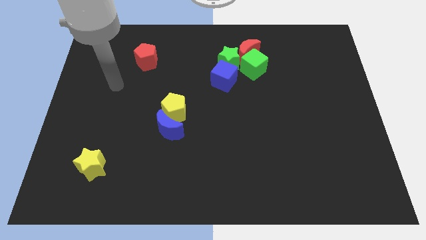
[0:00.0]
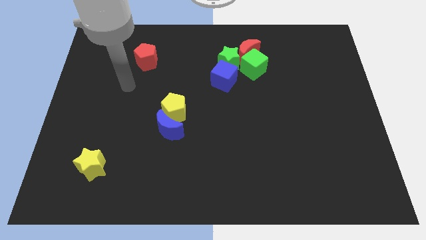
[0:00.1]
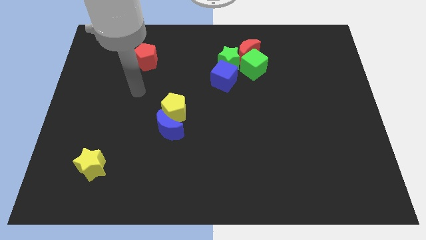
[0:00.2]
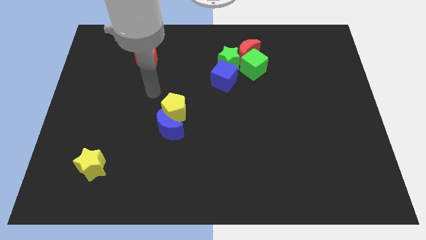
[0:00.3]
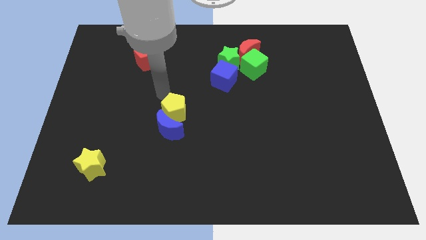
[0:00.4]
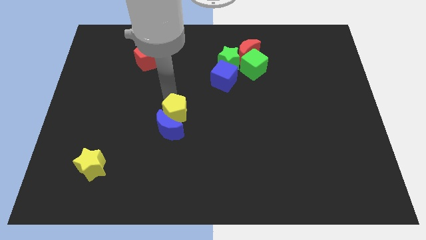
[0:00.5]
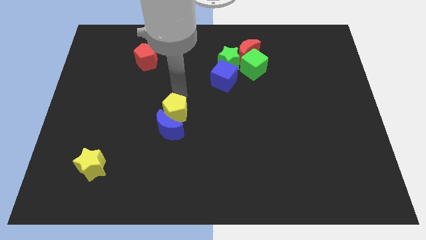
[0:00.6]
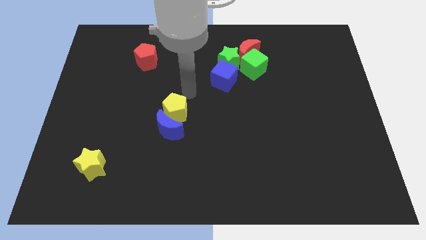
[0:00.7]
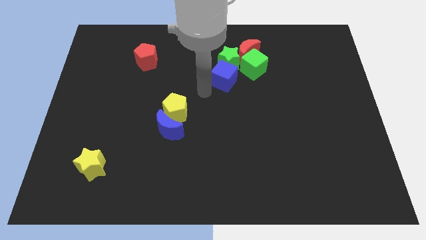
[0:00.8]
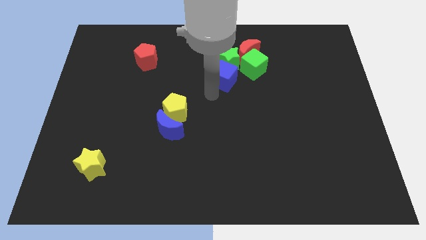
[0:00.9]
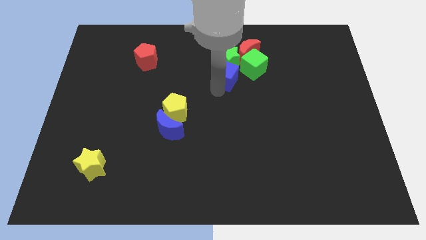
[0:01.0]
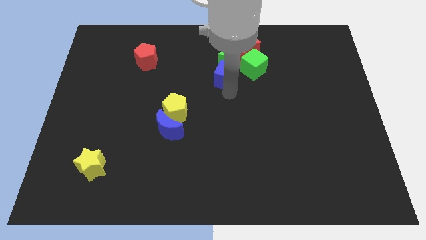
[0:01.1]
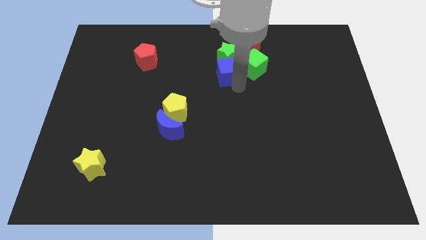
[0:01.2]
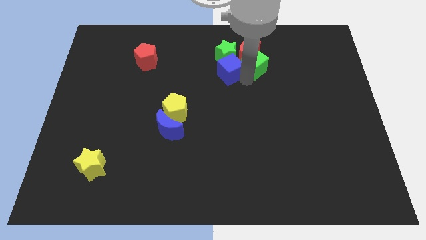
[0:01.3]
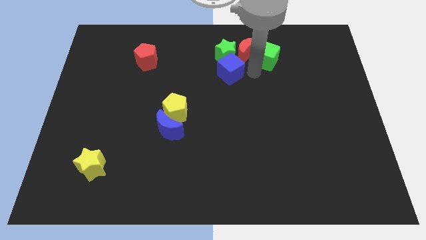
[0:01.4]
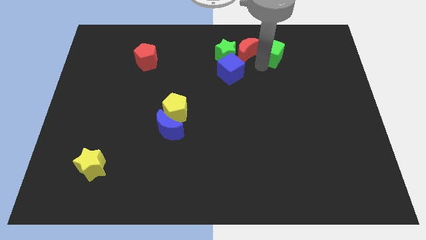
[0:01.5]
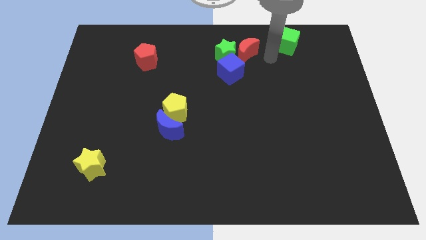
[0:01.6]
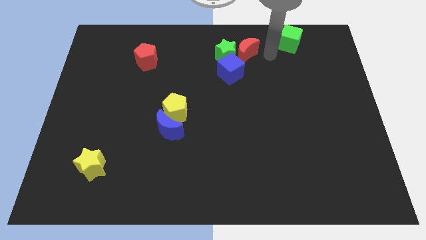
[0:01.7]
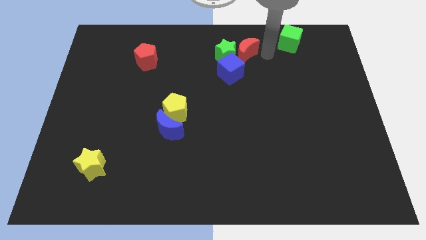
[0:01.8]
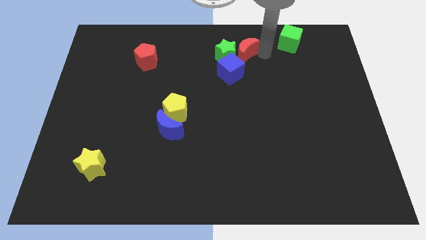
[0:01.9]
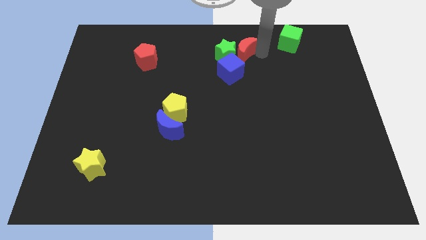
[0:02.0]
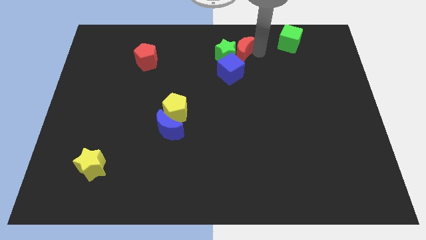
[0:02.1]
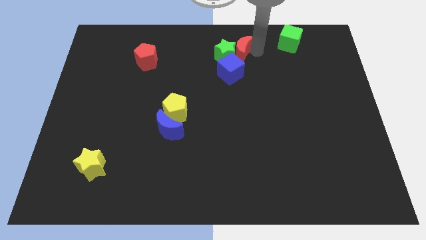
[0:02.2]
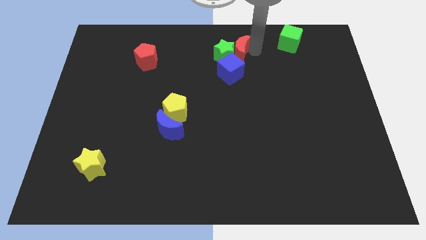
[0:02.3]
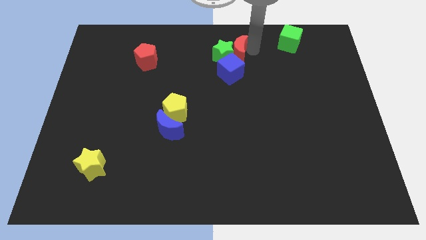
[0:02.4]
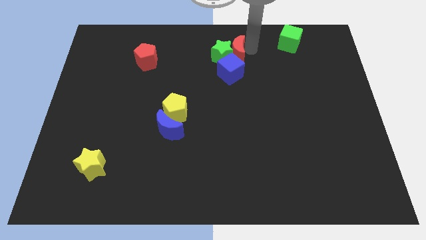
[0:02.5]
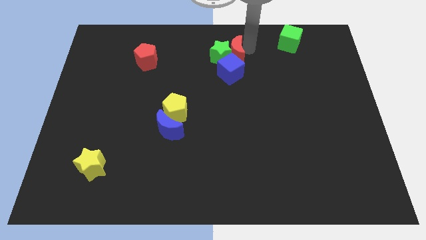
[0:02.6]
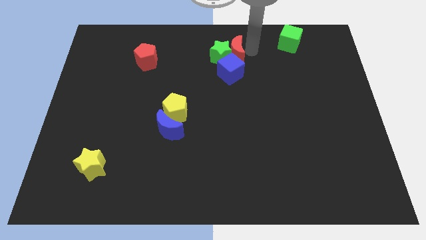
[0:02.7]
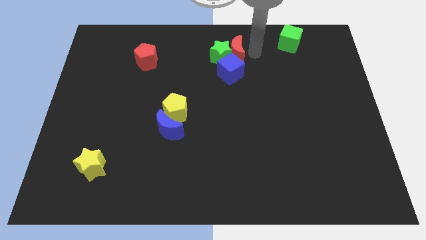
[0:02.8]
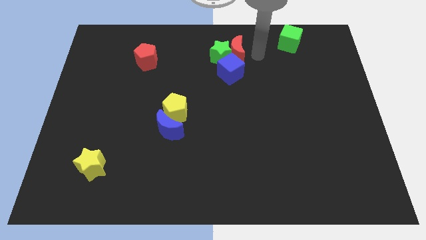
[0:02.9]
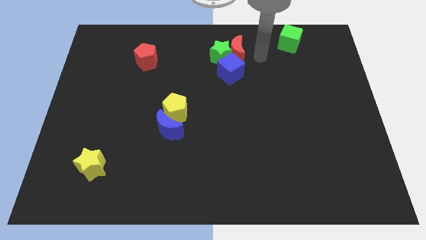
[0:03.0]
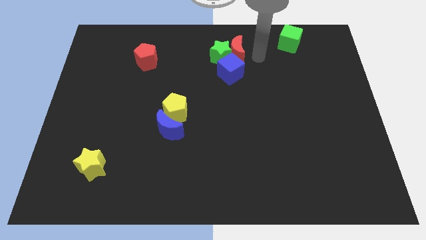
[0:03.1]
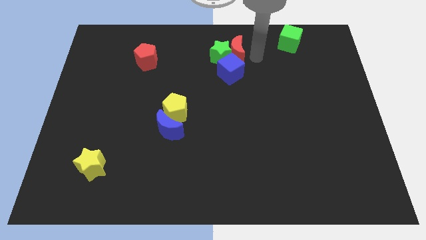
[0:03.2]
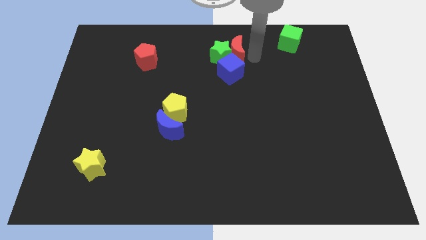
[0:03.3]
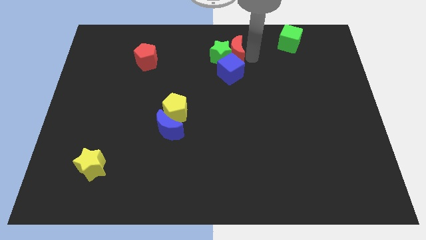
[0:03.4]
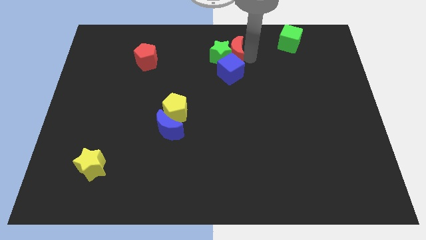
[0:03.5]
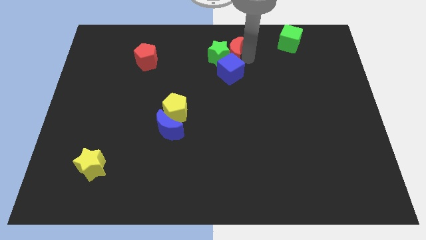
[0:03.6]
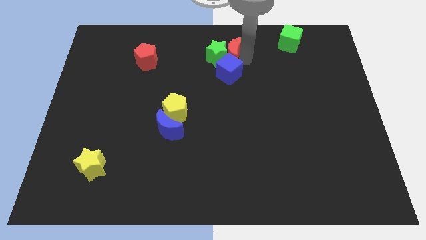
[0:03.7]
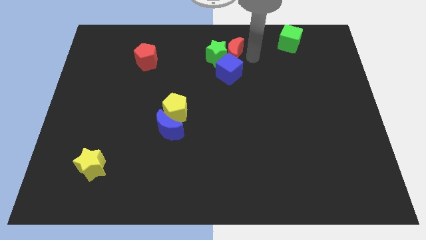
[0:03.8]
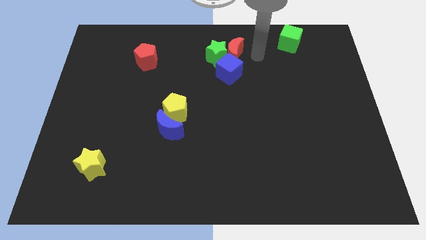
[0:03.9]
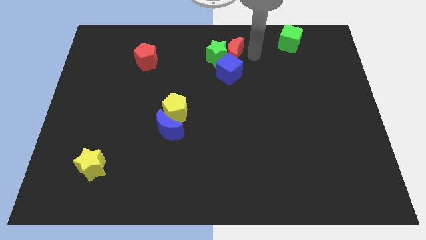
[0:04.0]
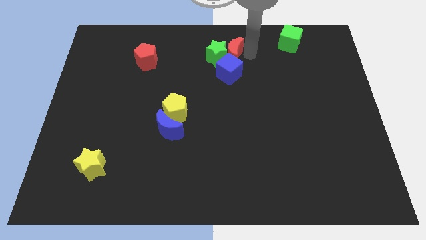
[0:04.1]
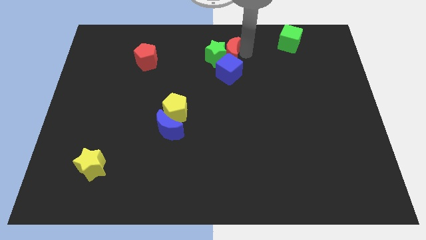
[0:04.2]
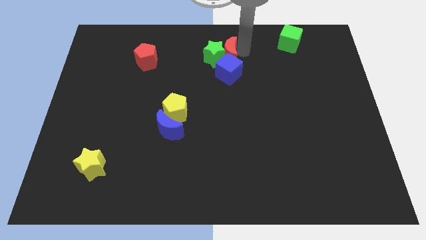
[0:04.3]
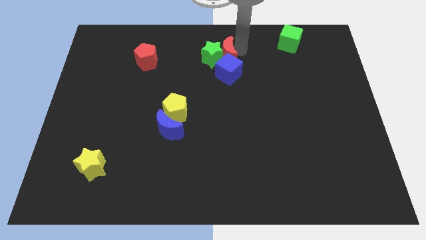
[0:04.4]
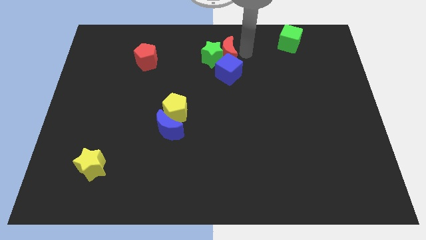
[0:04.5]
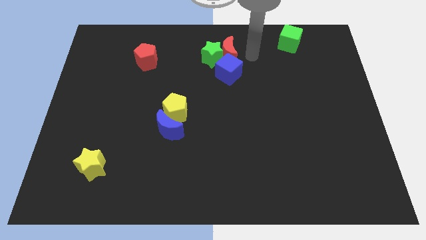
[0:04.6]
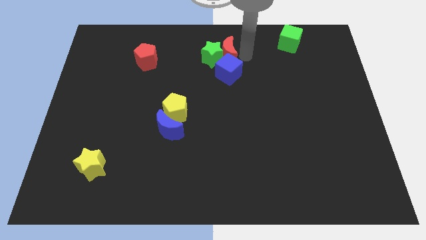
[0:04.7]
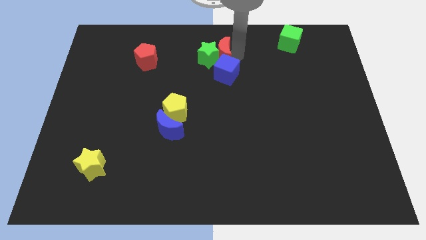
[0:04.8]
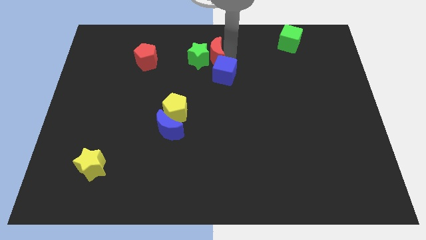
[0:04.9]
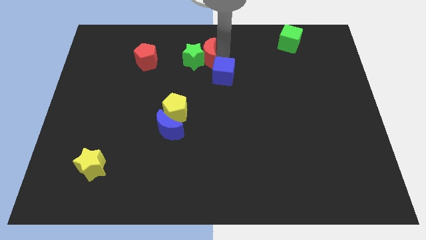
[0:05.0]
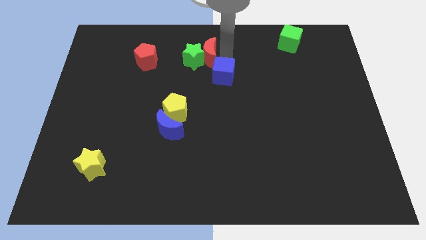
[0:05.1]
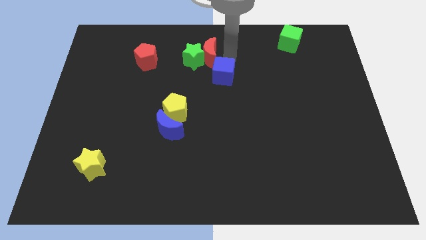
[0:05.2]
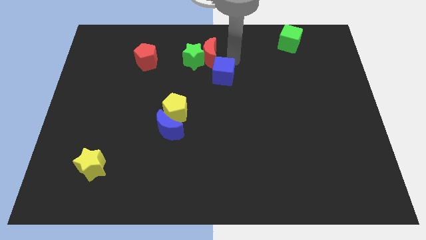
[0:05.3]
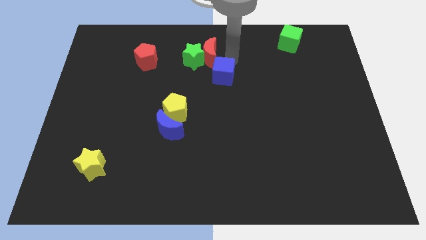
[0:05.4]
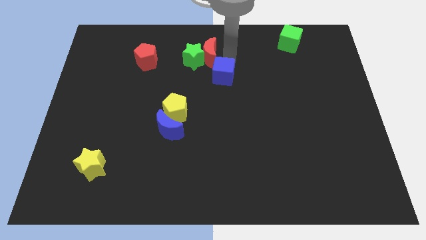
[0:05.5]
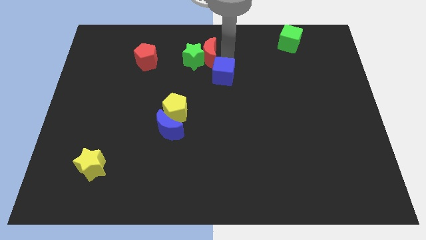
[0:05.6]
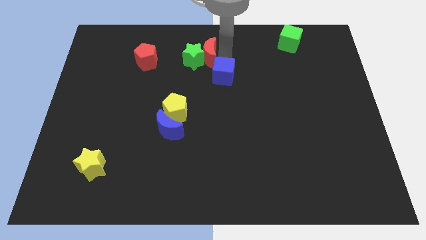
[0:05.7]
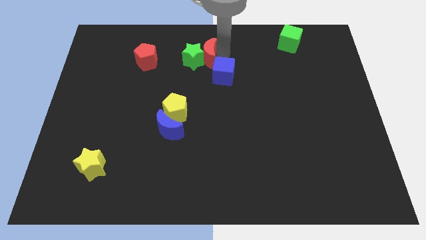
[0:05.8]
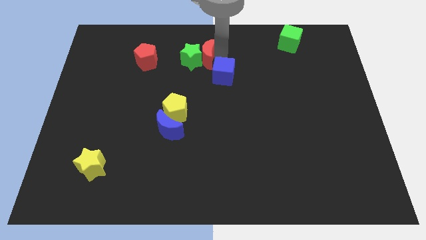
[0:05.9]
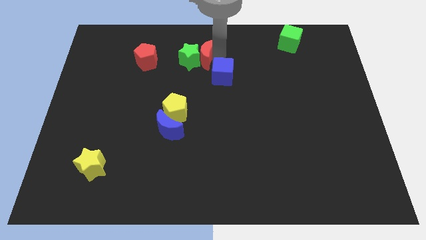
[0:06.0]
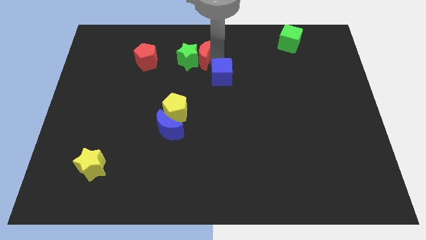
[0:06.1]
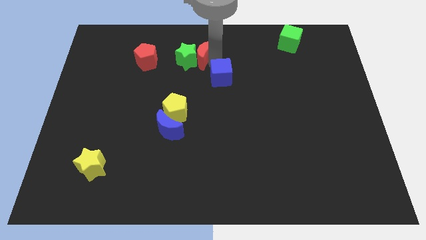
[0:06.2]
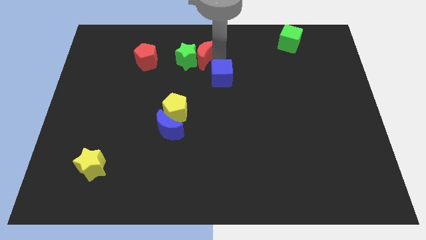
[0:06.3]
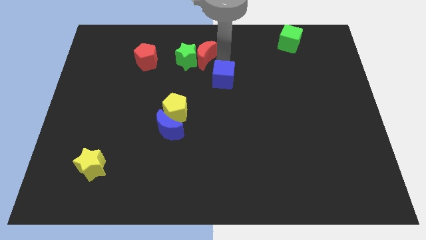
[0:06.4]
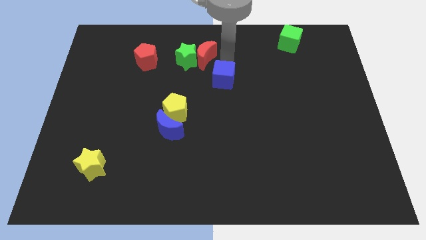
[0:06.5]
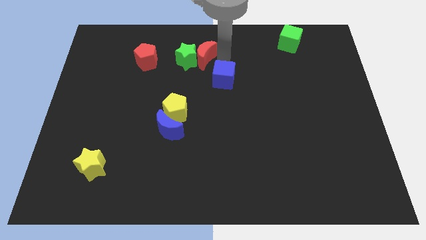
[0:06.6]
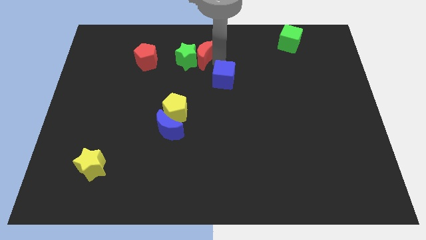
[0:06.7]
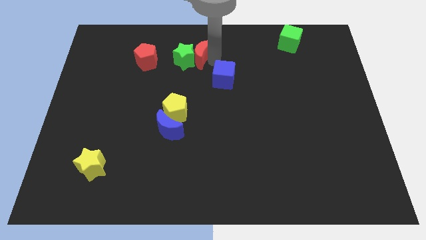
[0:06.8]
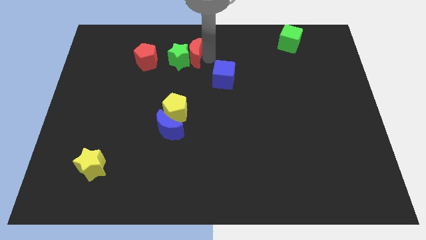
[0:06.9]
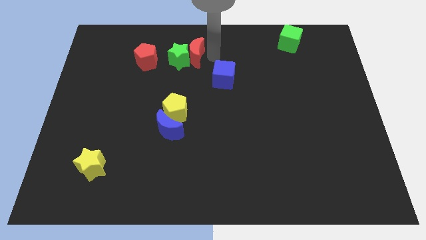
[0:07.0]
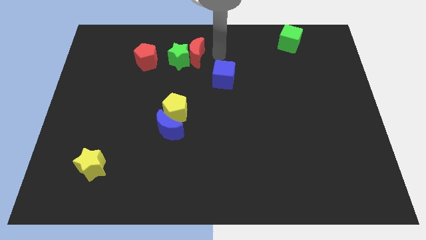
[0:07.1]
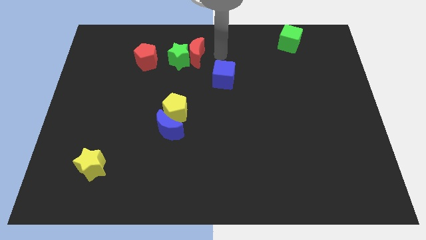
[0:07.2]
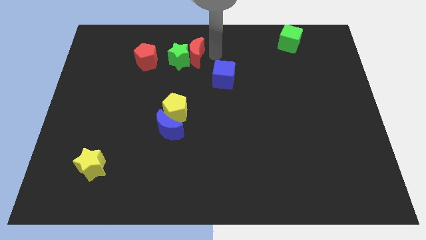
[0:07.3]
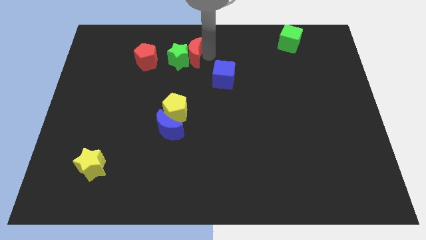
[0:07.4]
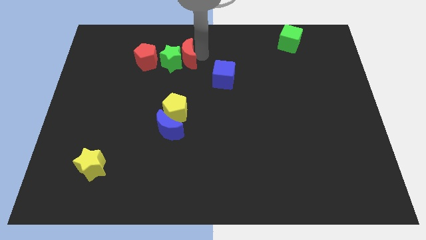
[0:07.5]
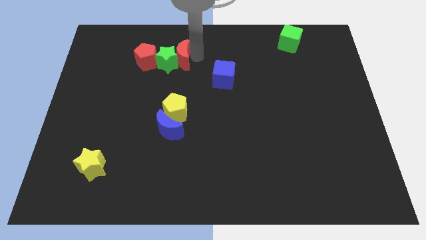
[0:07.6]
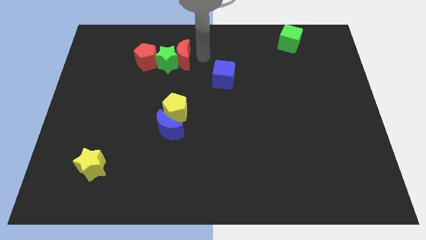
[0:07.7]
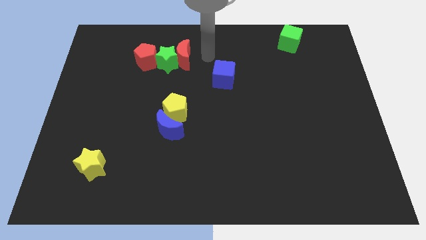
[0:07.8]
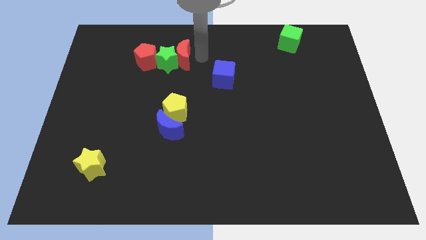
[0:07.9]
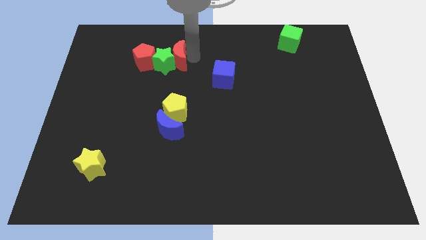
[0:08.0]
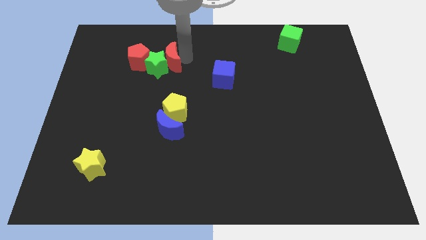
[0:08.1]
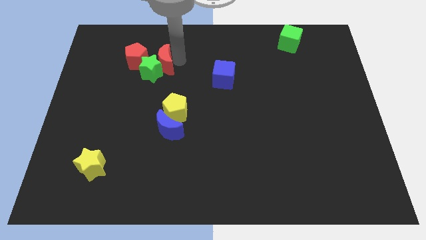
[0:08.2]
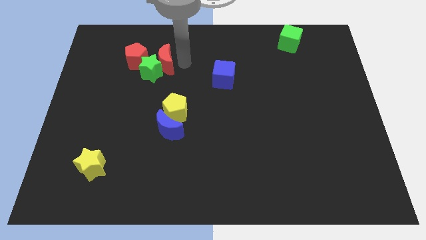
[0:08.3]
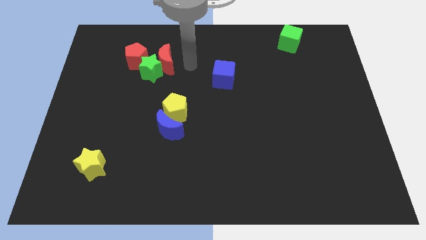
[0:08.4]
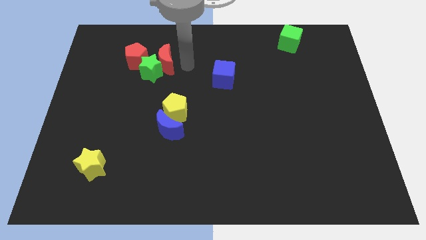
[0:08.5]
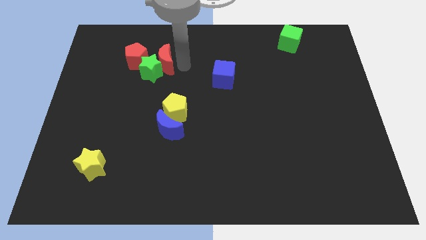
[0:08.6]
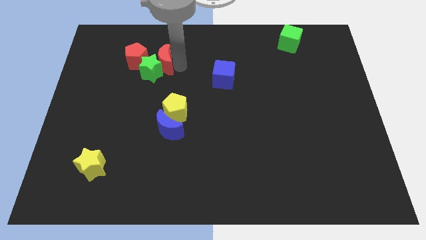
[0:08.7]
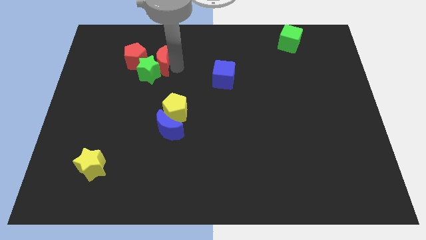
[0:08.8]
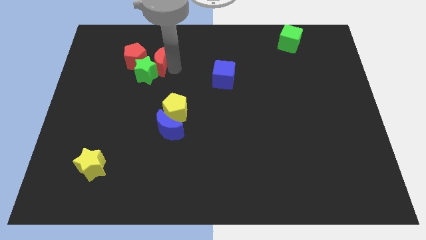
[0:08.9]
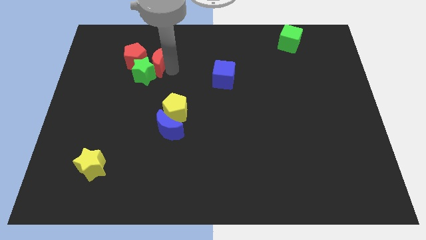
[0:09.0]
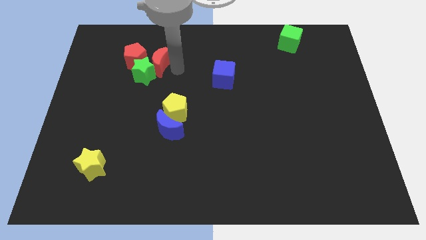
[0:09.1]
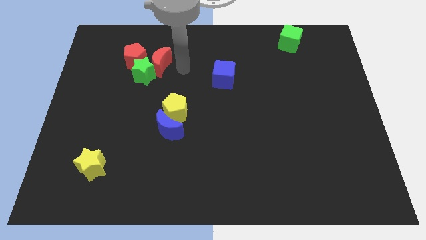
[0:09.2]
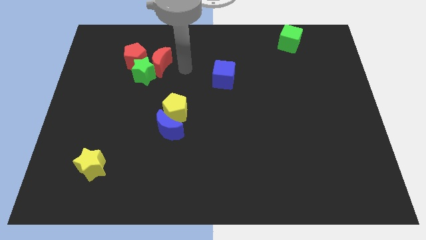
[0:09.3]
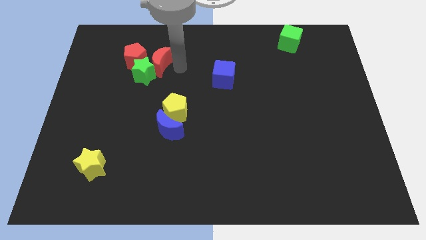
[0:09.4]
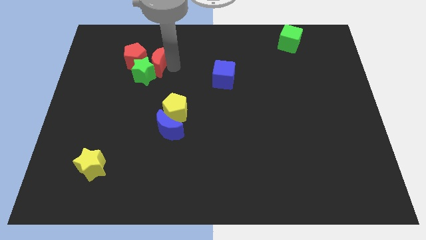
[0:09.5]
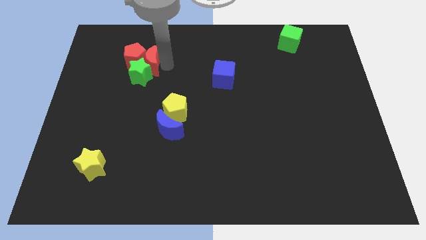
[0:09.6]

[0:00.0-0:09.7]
push the red moon towards the red pentagon
